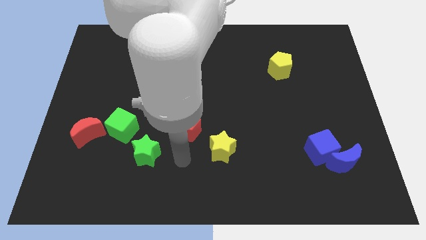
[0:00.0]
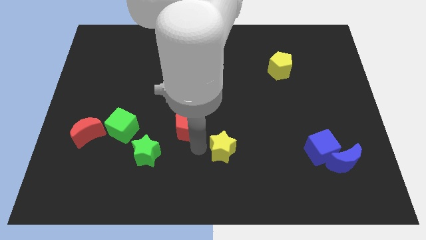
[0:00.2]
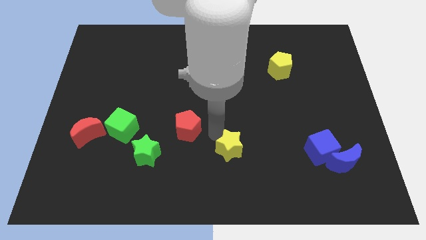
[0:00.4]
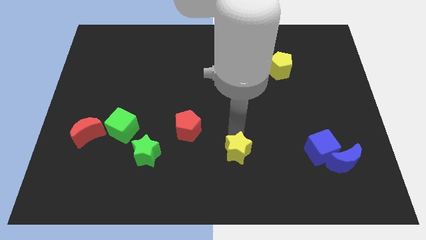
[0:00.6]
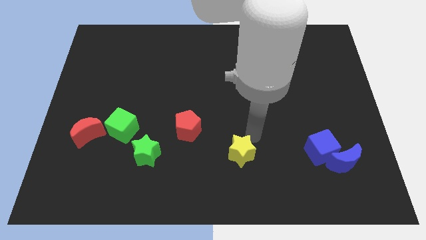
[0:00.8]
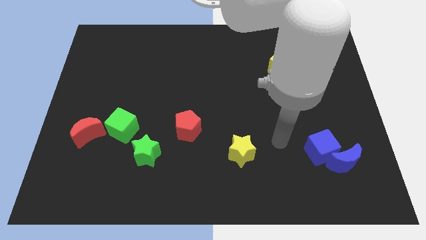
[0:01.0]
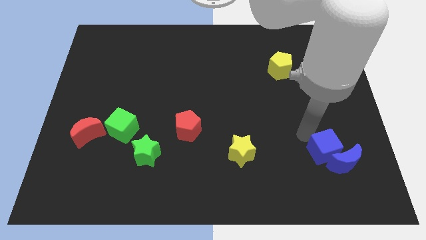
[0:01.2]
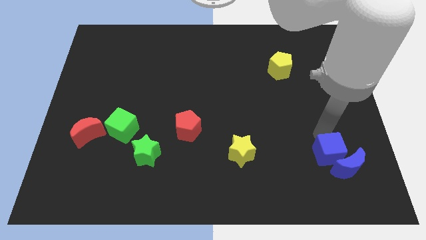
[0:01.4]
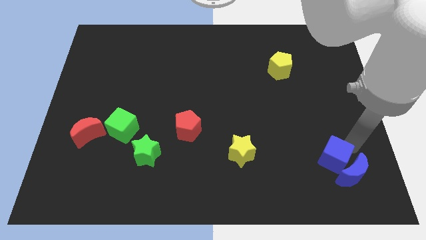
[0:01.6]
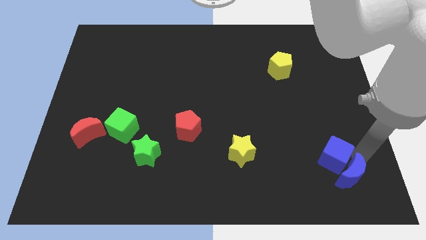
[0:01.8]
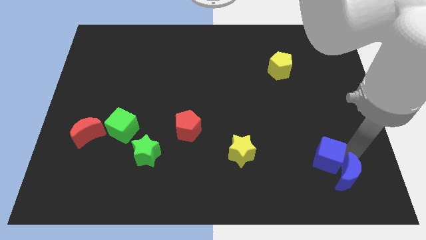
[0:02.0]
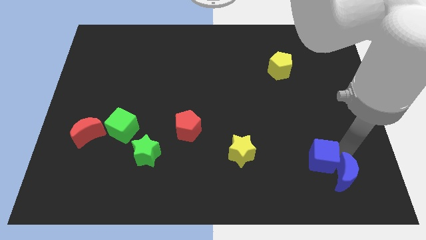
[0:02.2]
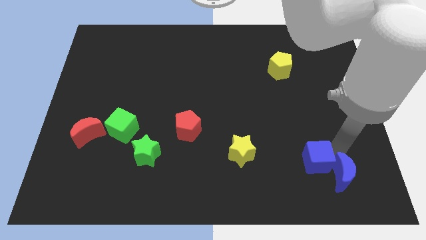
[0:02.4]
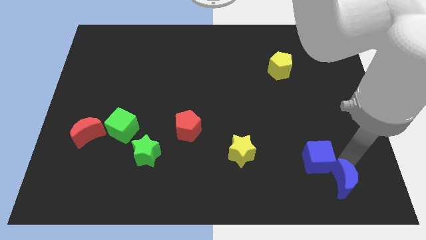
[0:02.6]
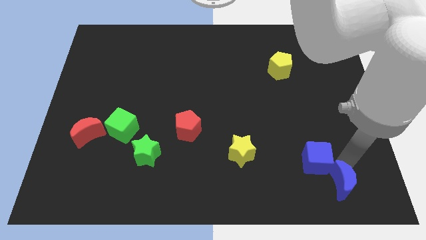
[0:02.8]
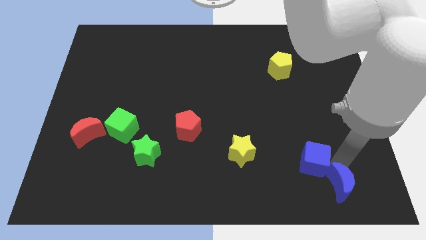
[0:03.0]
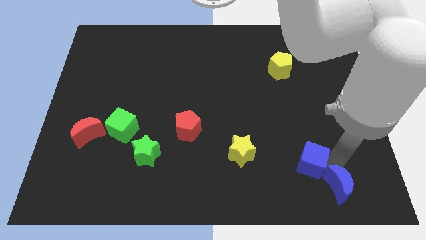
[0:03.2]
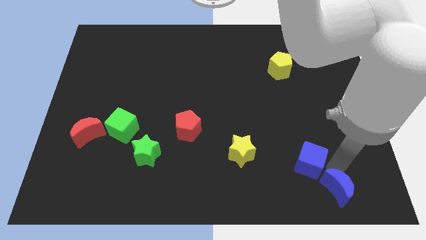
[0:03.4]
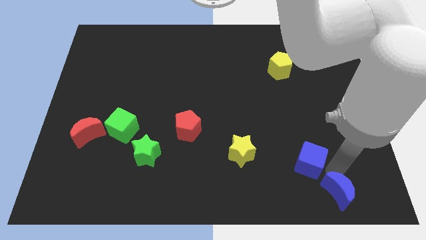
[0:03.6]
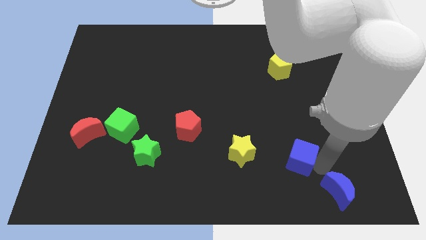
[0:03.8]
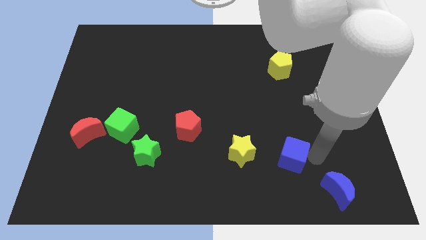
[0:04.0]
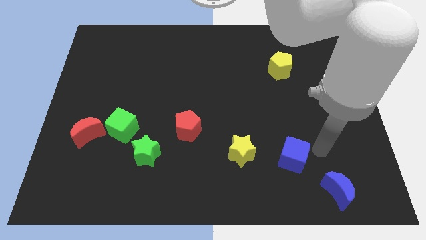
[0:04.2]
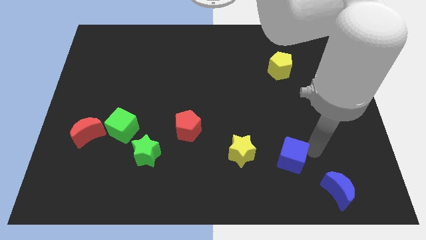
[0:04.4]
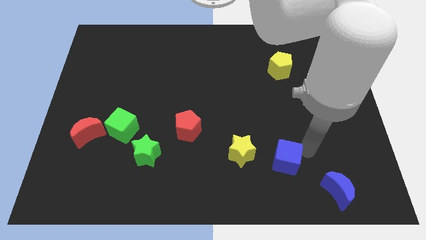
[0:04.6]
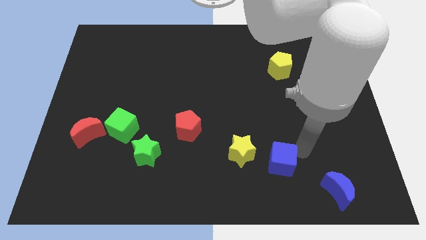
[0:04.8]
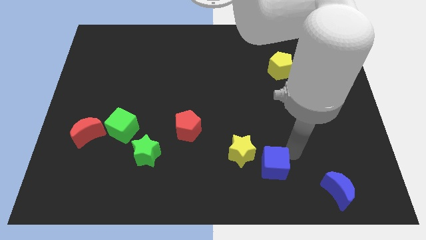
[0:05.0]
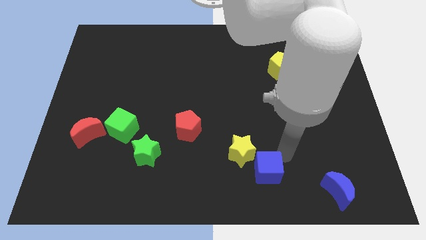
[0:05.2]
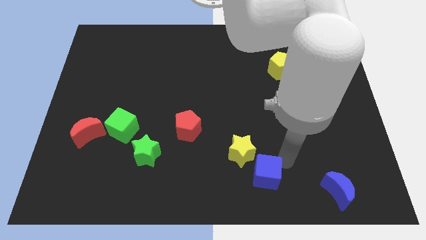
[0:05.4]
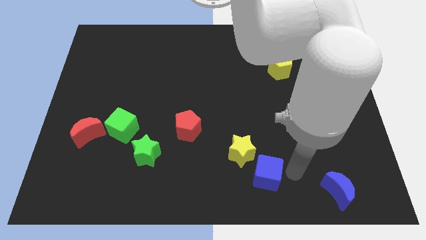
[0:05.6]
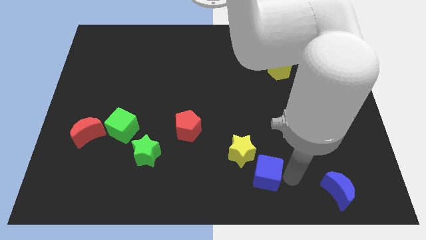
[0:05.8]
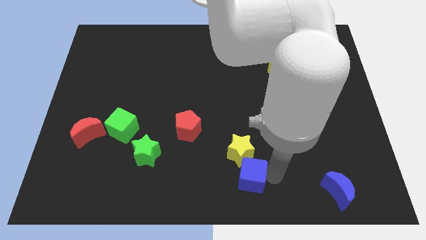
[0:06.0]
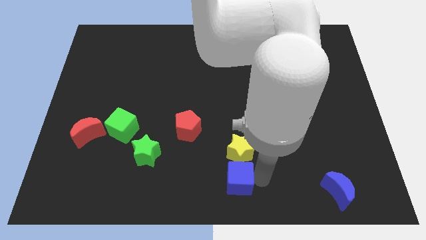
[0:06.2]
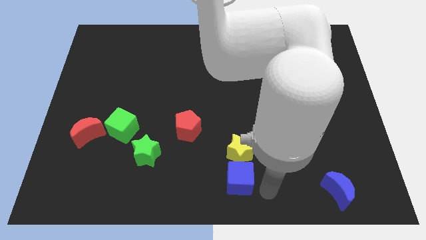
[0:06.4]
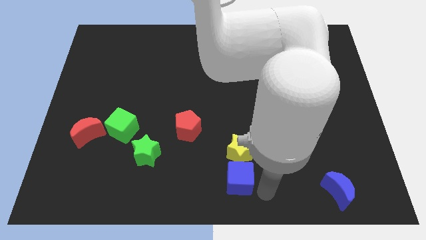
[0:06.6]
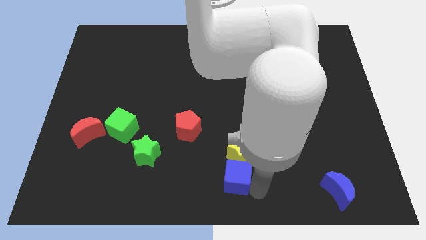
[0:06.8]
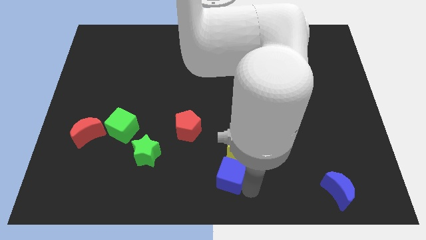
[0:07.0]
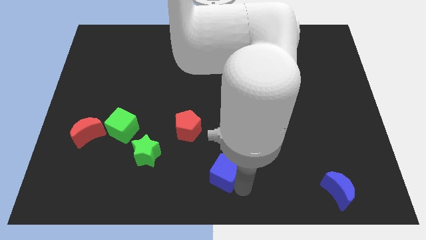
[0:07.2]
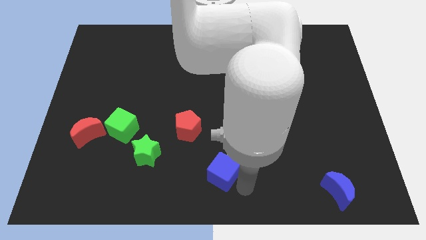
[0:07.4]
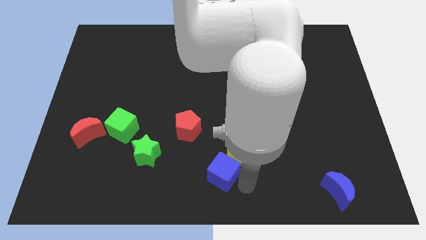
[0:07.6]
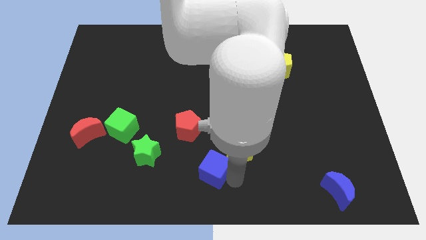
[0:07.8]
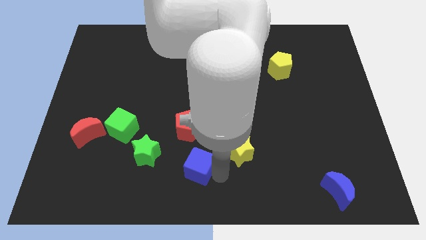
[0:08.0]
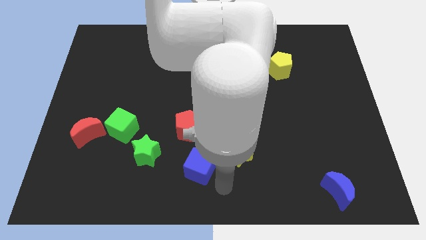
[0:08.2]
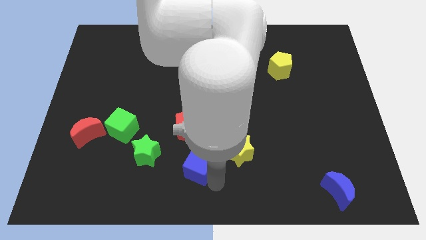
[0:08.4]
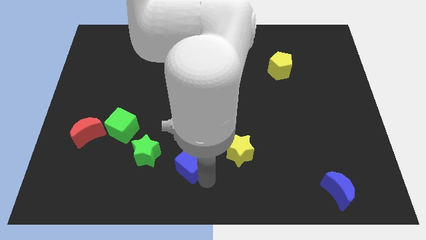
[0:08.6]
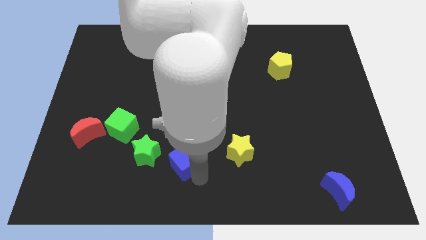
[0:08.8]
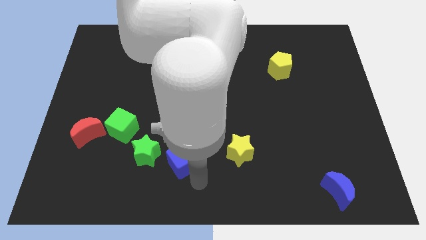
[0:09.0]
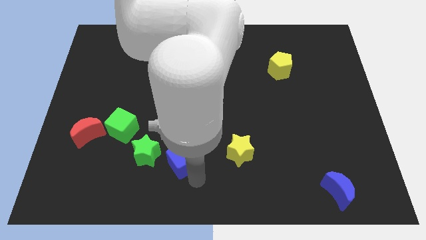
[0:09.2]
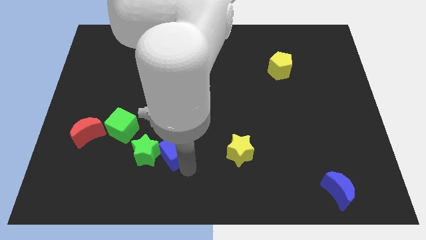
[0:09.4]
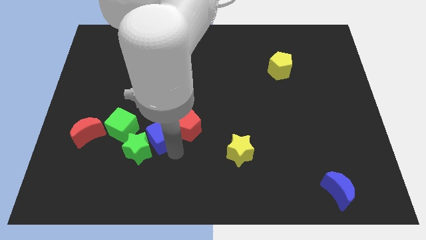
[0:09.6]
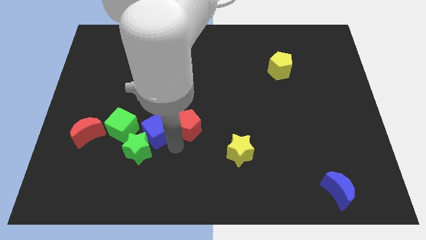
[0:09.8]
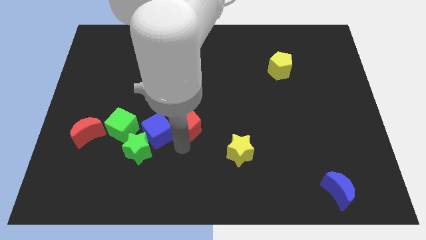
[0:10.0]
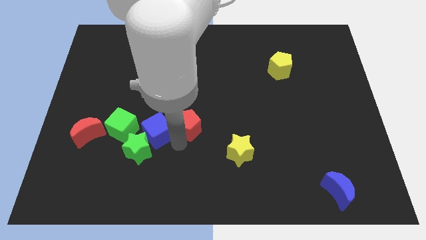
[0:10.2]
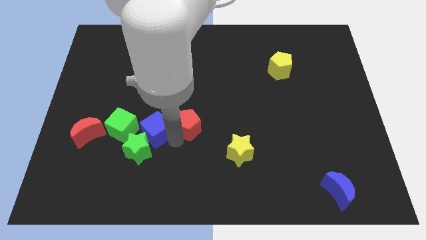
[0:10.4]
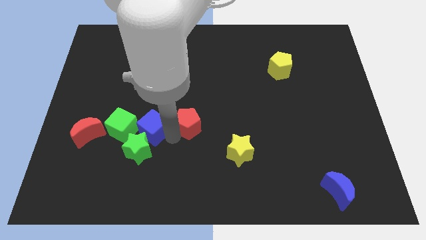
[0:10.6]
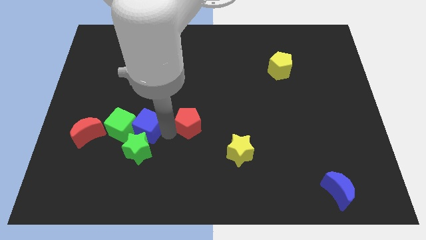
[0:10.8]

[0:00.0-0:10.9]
move the blue cube close to the green cube

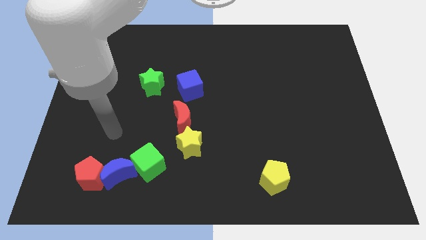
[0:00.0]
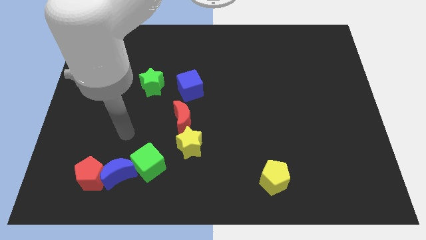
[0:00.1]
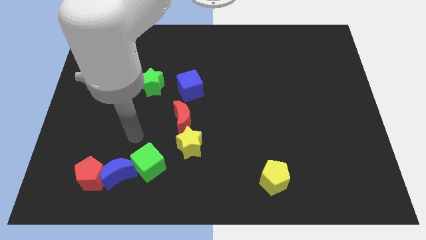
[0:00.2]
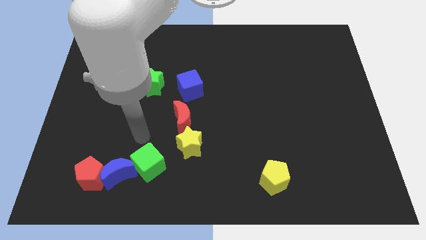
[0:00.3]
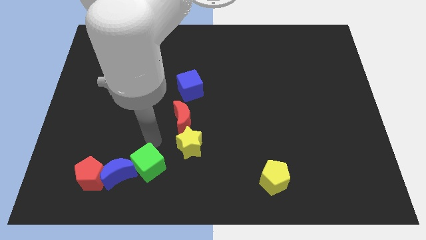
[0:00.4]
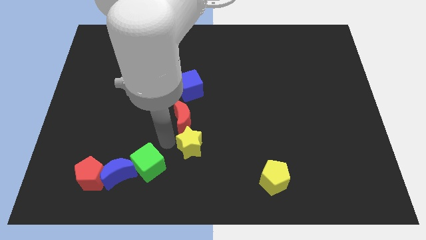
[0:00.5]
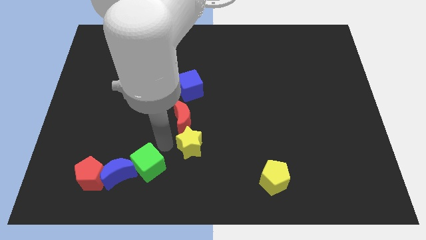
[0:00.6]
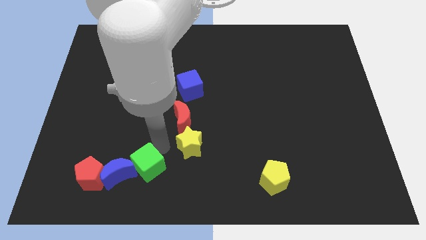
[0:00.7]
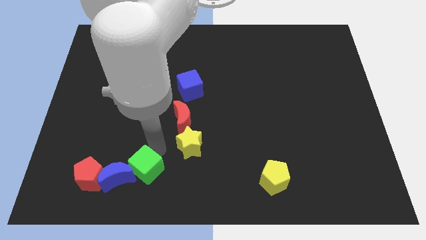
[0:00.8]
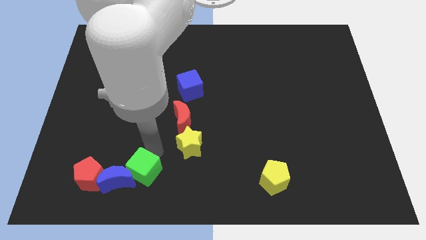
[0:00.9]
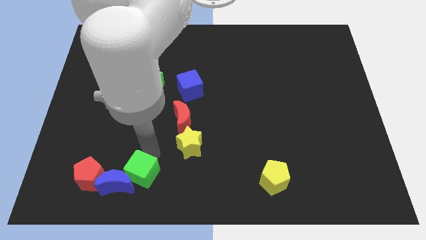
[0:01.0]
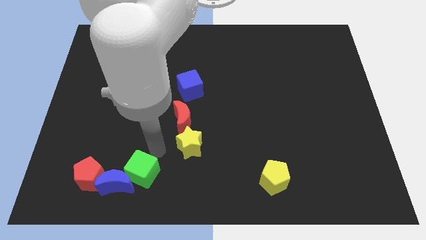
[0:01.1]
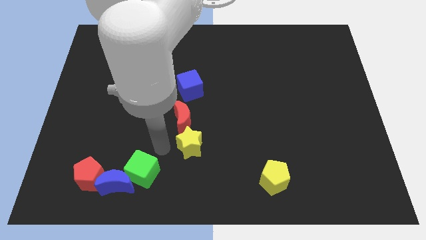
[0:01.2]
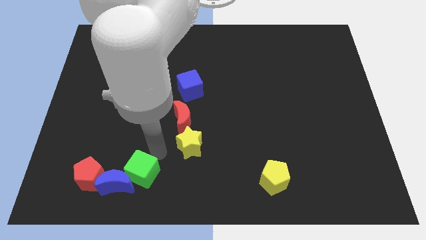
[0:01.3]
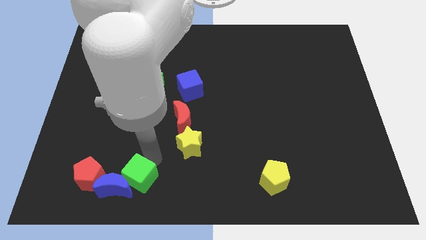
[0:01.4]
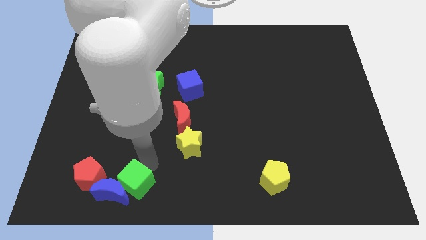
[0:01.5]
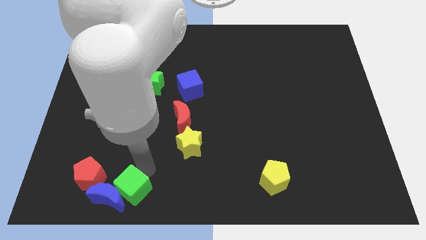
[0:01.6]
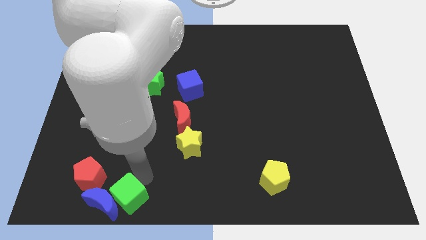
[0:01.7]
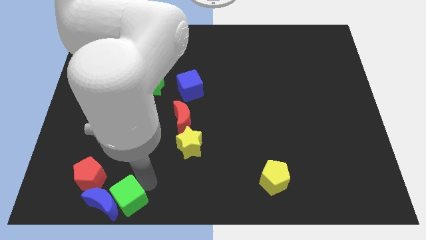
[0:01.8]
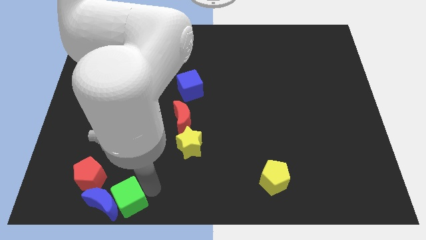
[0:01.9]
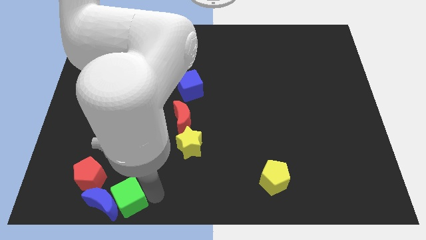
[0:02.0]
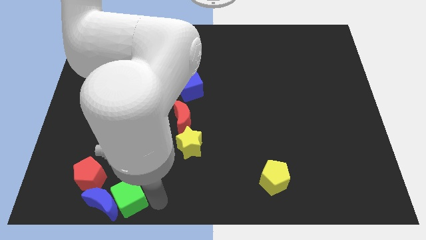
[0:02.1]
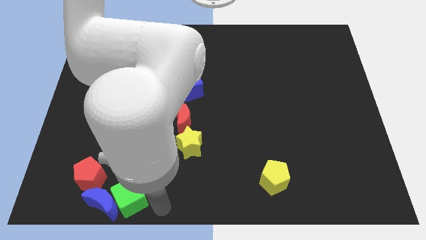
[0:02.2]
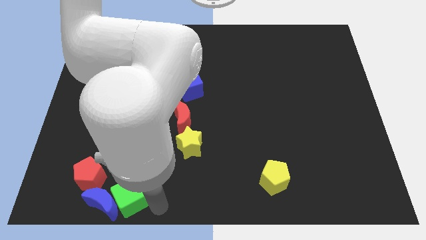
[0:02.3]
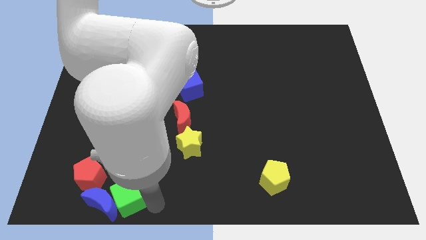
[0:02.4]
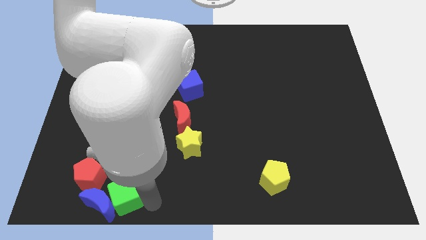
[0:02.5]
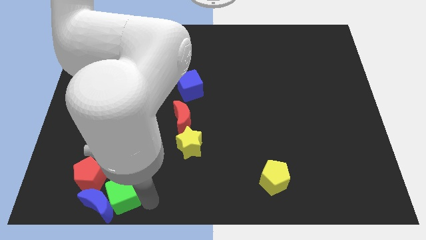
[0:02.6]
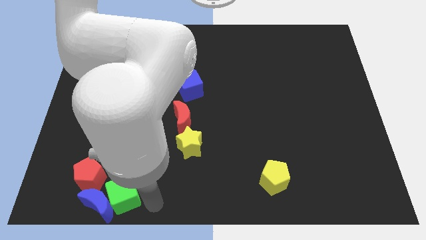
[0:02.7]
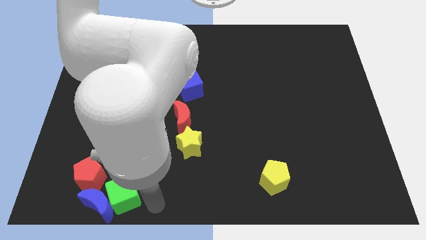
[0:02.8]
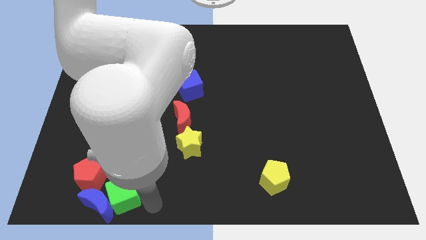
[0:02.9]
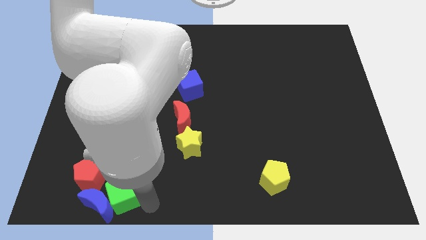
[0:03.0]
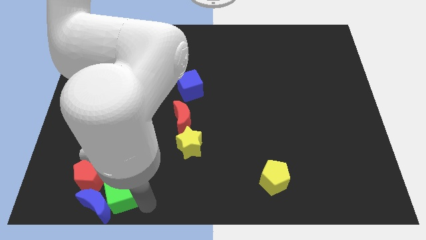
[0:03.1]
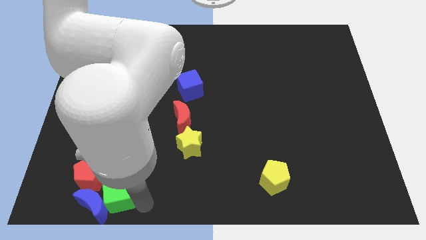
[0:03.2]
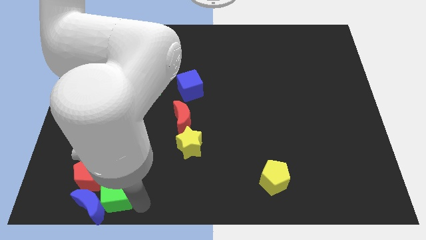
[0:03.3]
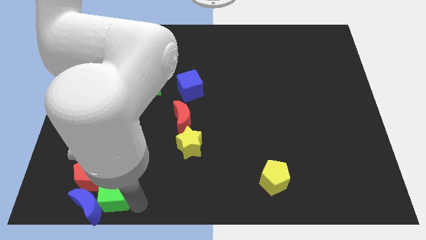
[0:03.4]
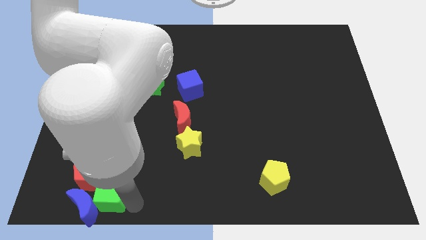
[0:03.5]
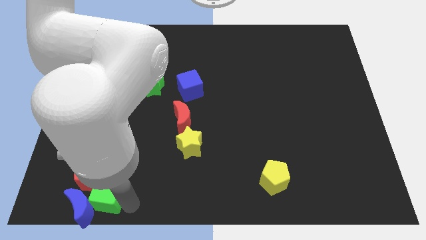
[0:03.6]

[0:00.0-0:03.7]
move the green cube towards the red pentagon
